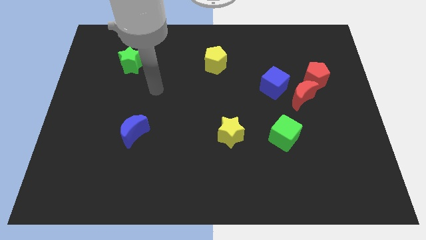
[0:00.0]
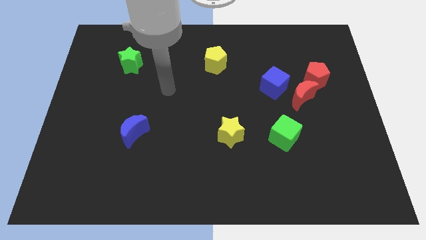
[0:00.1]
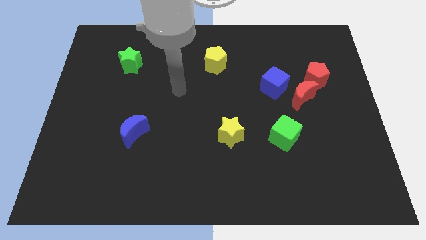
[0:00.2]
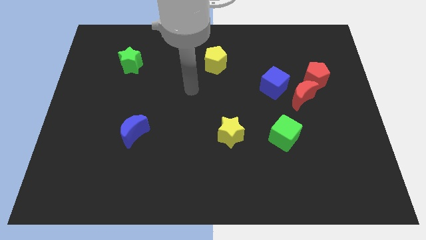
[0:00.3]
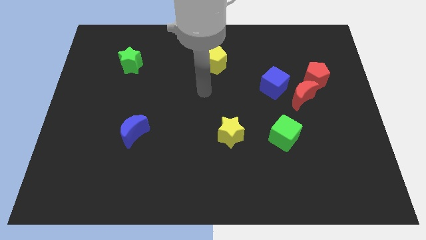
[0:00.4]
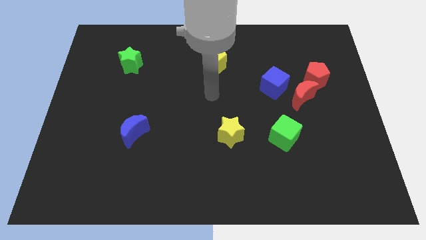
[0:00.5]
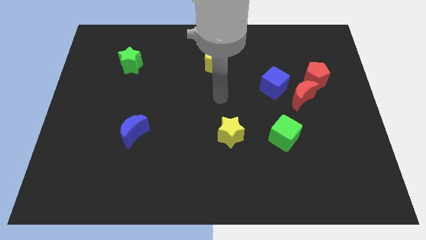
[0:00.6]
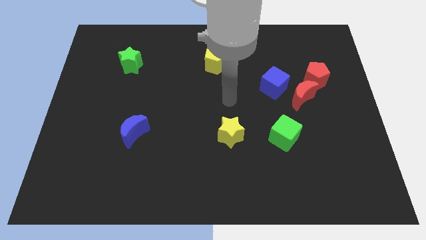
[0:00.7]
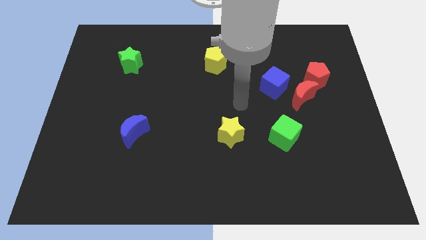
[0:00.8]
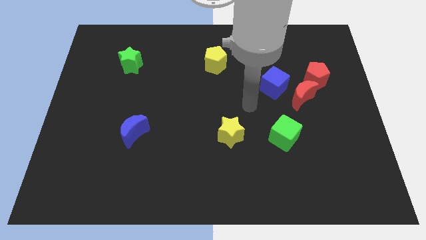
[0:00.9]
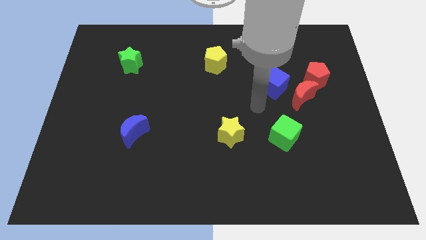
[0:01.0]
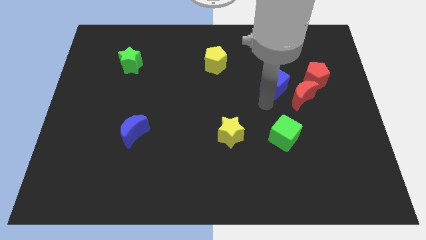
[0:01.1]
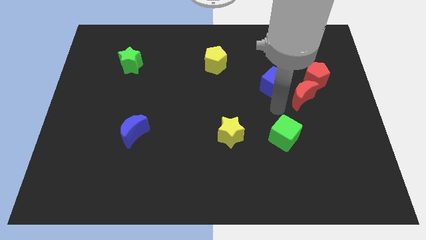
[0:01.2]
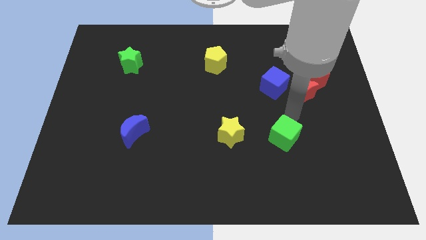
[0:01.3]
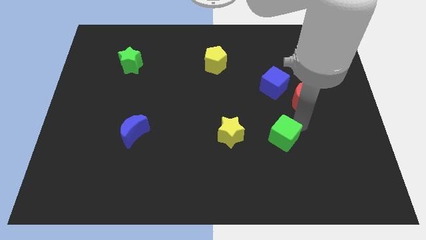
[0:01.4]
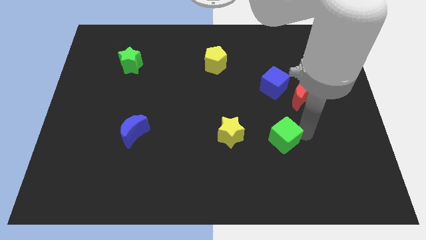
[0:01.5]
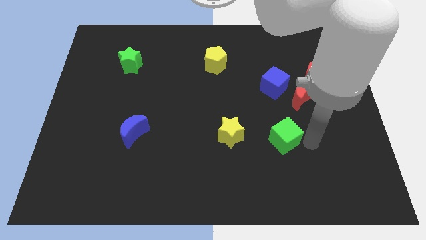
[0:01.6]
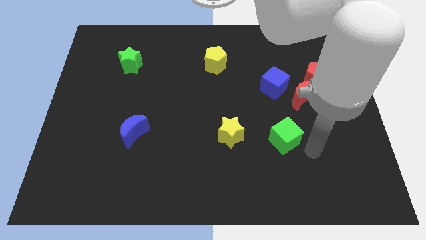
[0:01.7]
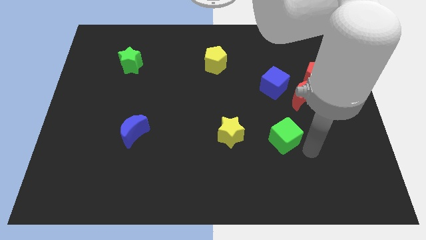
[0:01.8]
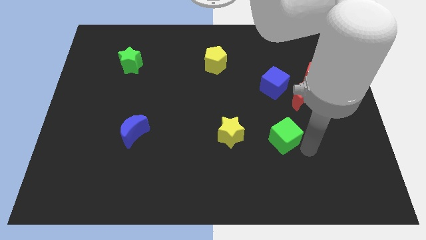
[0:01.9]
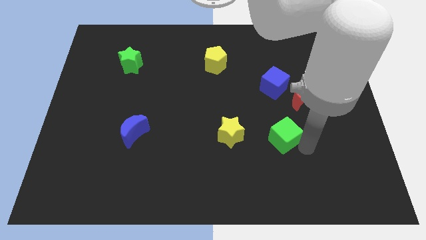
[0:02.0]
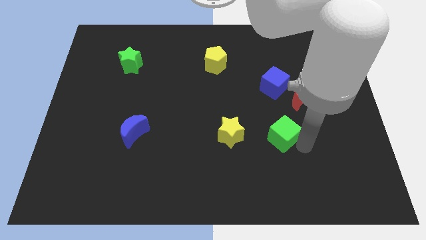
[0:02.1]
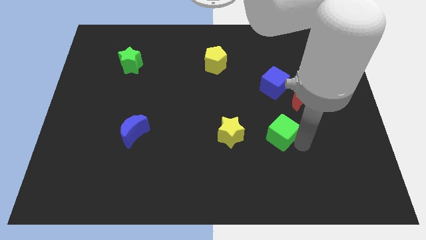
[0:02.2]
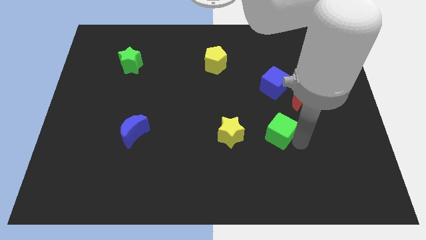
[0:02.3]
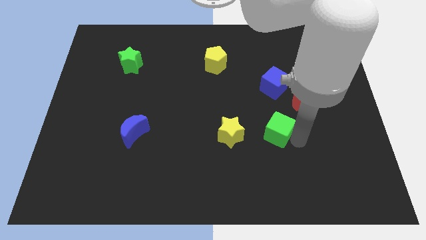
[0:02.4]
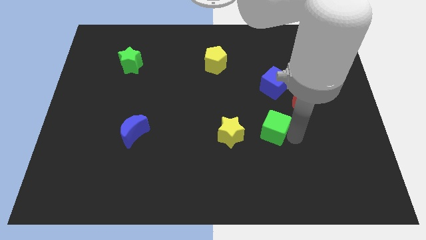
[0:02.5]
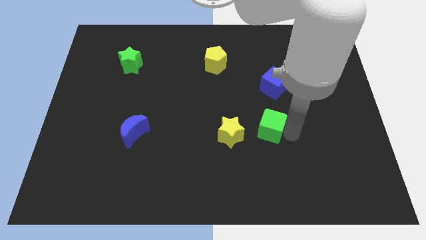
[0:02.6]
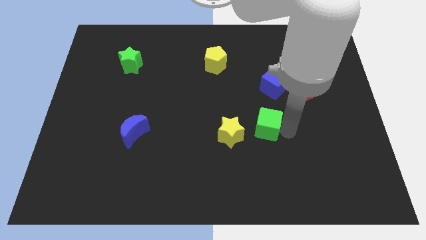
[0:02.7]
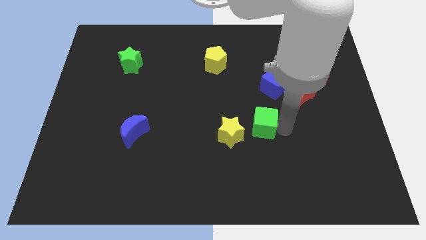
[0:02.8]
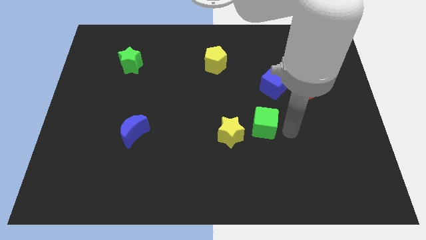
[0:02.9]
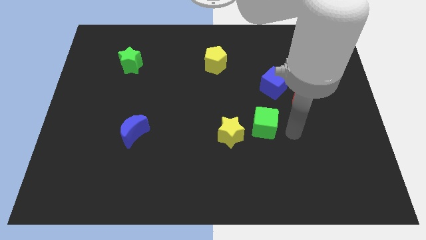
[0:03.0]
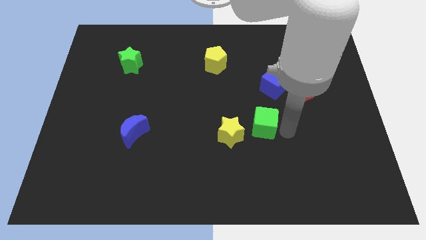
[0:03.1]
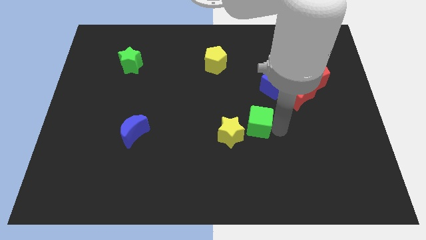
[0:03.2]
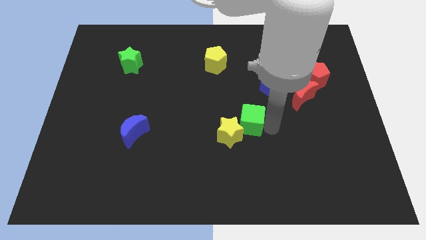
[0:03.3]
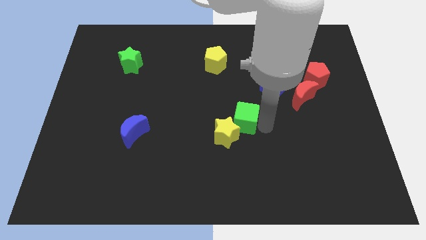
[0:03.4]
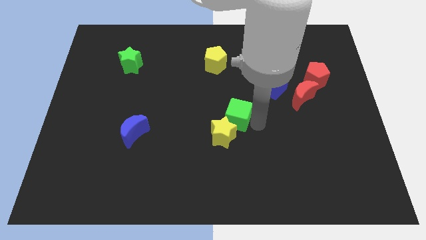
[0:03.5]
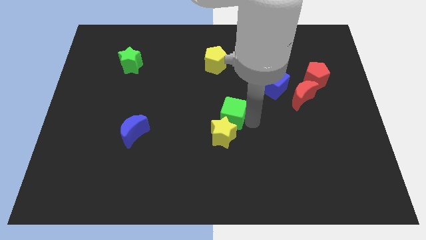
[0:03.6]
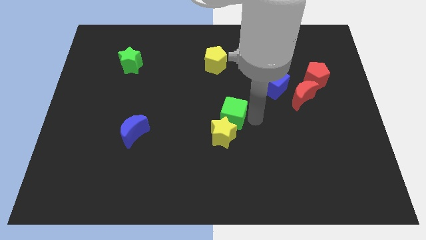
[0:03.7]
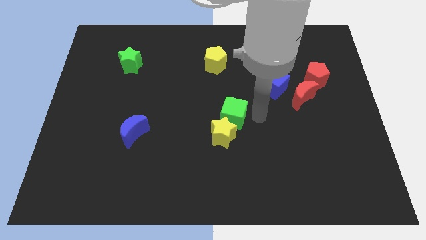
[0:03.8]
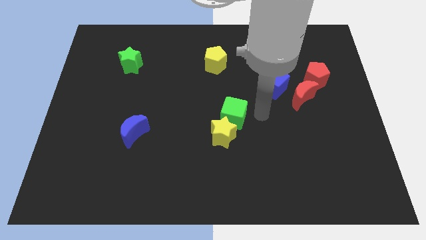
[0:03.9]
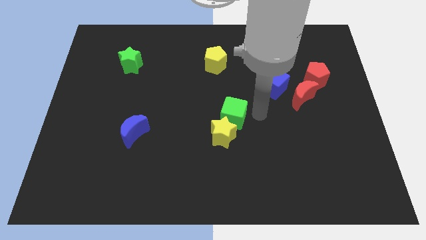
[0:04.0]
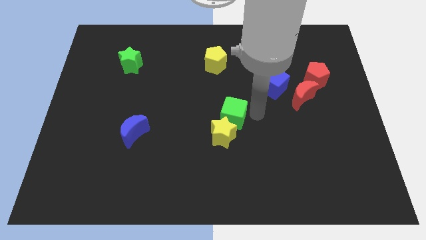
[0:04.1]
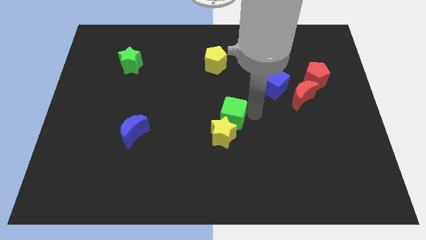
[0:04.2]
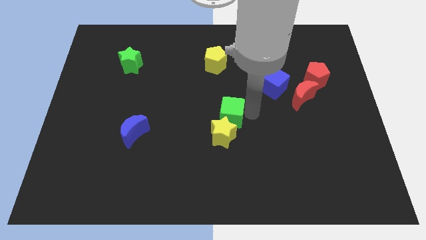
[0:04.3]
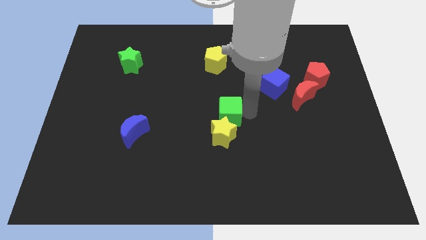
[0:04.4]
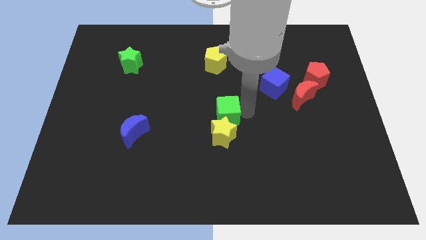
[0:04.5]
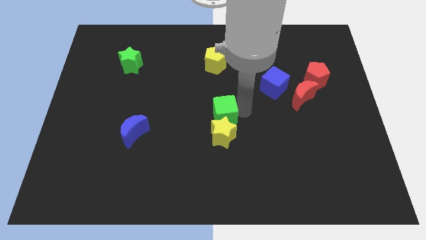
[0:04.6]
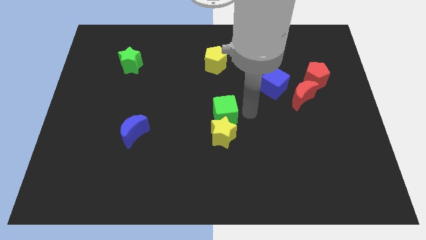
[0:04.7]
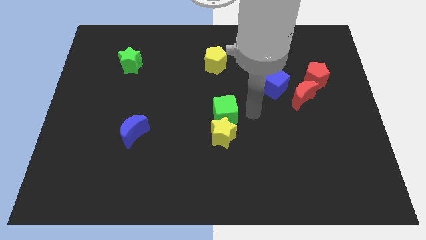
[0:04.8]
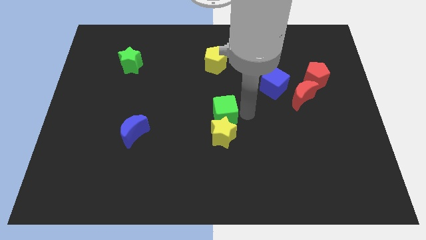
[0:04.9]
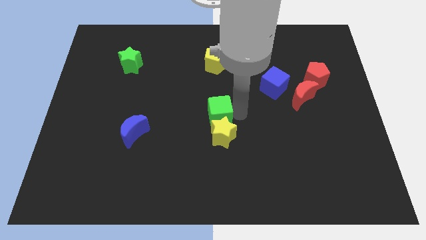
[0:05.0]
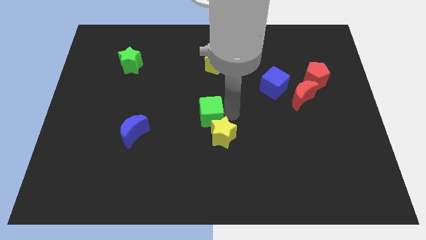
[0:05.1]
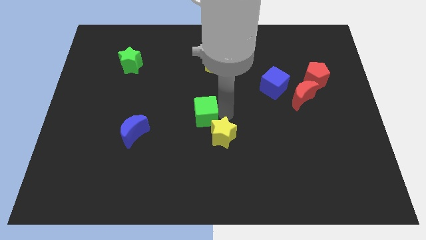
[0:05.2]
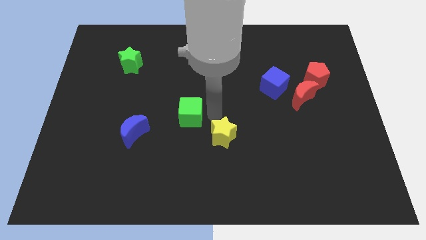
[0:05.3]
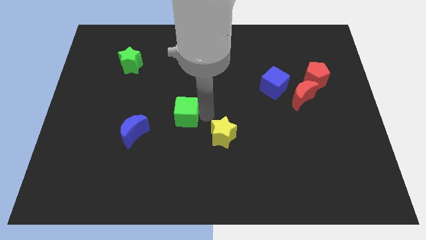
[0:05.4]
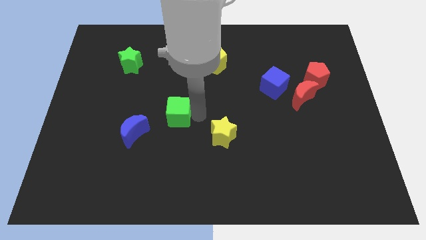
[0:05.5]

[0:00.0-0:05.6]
slide the green cube diagonally up and to the right of the blue moon

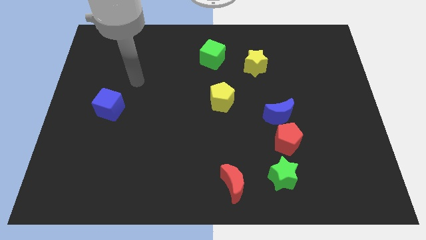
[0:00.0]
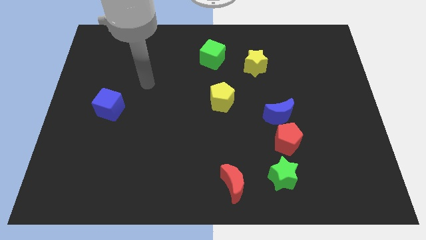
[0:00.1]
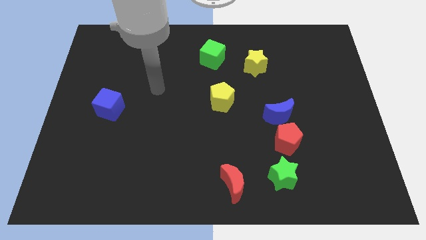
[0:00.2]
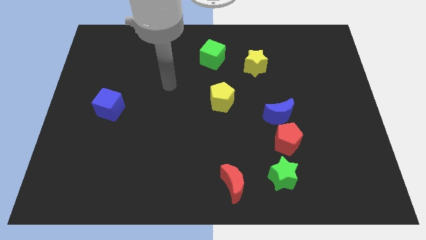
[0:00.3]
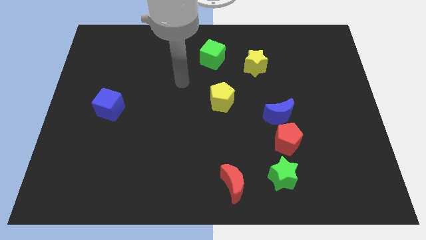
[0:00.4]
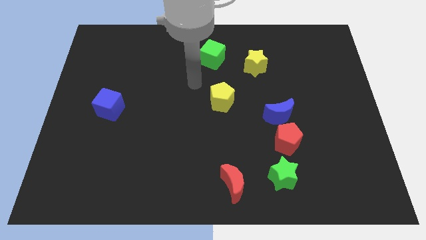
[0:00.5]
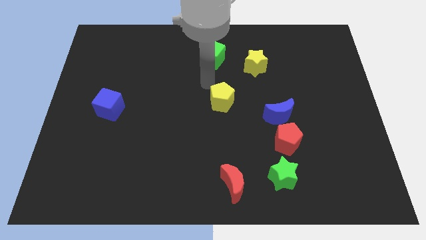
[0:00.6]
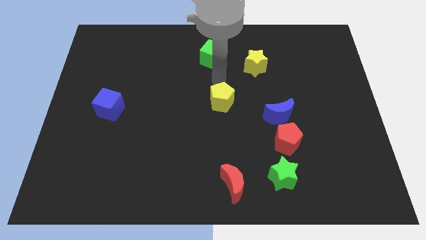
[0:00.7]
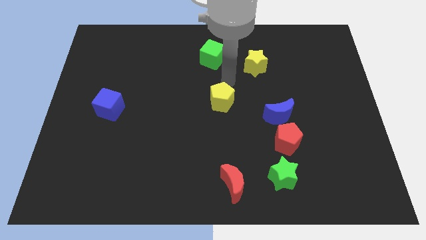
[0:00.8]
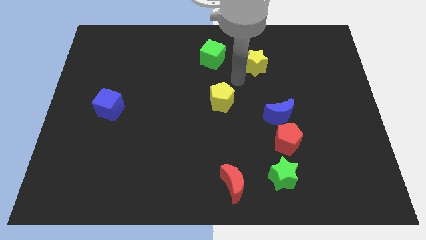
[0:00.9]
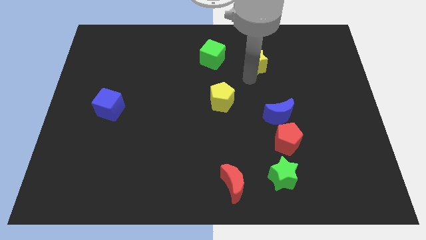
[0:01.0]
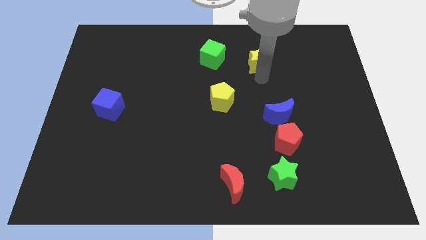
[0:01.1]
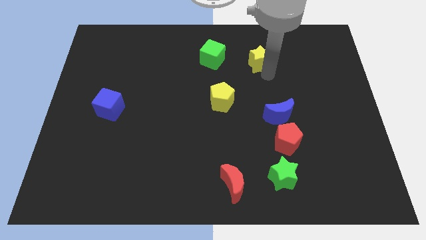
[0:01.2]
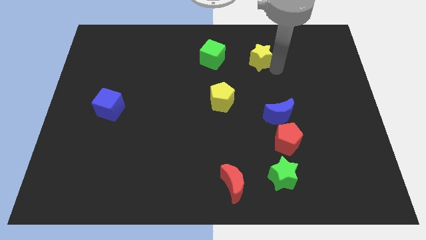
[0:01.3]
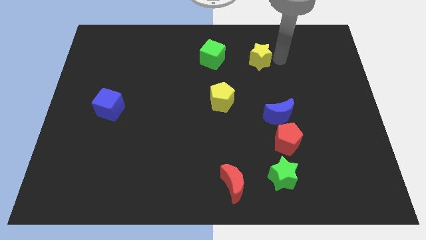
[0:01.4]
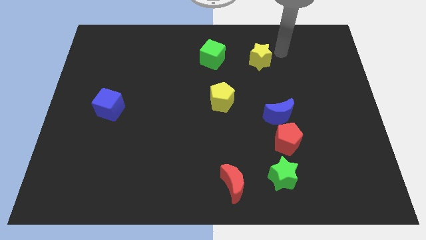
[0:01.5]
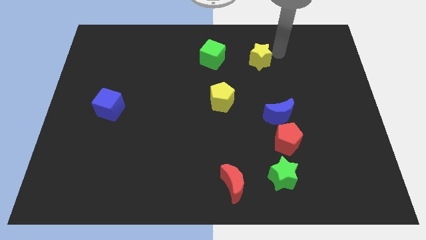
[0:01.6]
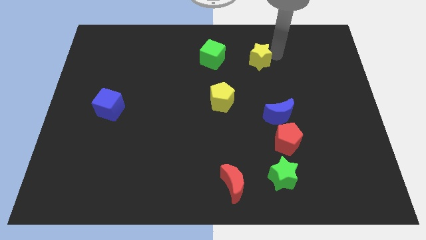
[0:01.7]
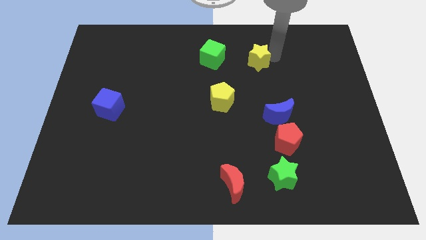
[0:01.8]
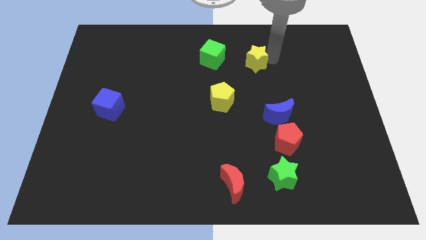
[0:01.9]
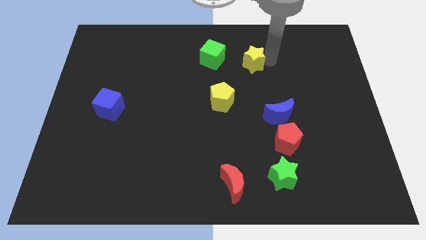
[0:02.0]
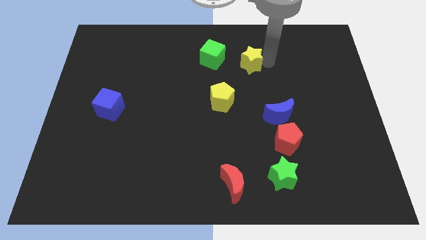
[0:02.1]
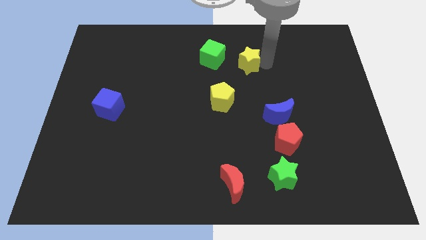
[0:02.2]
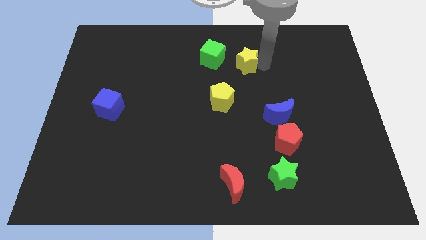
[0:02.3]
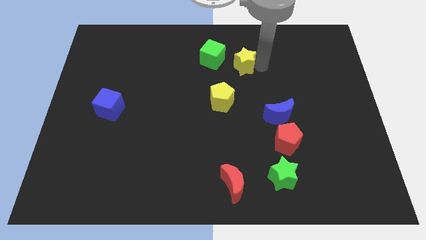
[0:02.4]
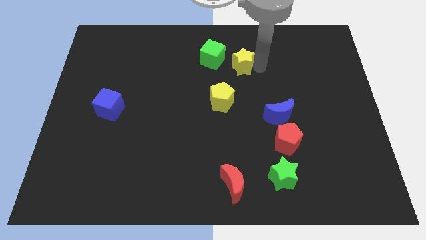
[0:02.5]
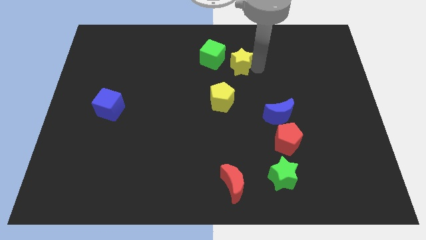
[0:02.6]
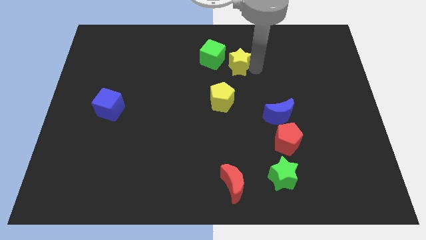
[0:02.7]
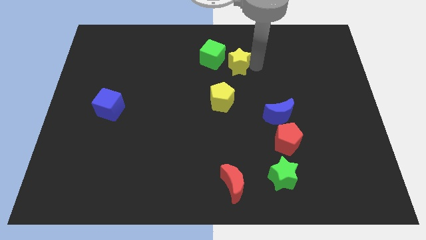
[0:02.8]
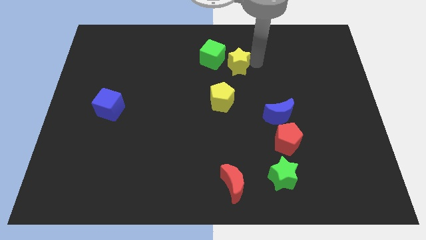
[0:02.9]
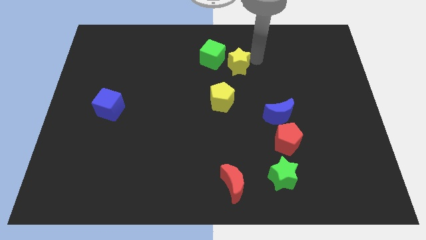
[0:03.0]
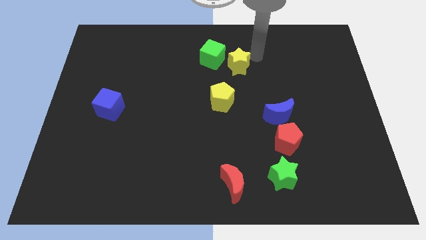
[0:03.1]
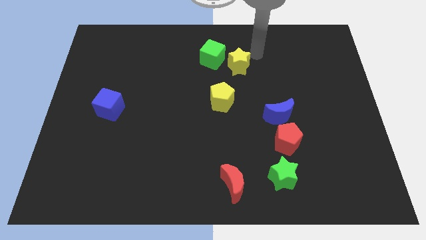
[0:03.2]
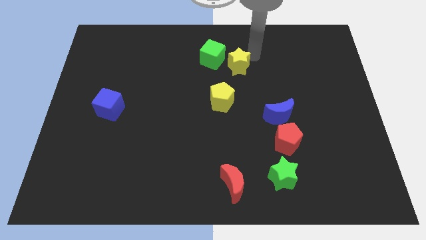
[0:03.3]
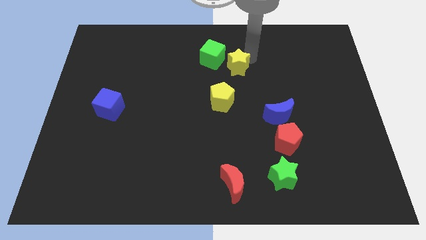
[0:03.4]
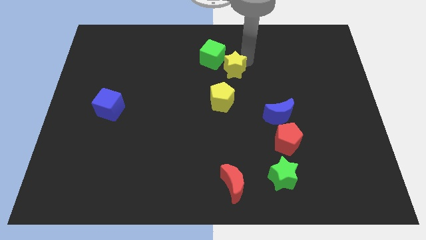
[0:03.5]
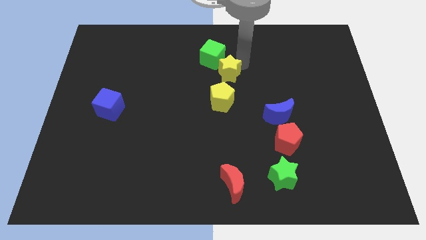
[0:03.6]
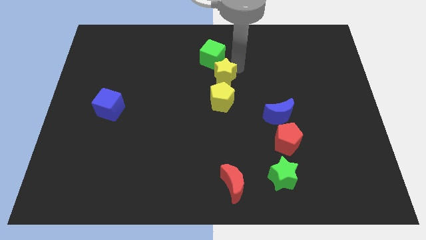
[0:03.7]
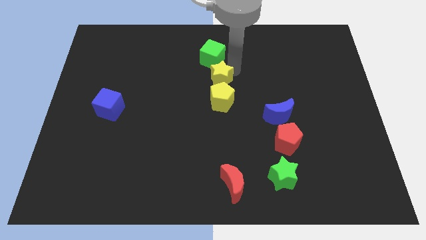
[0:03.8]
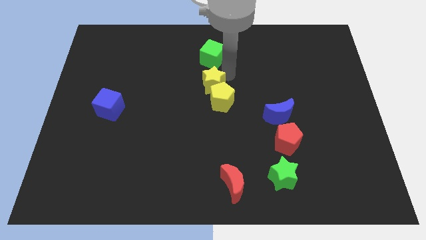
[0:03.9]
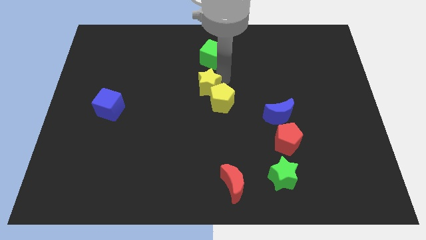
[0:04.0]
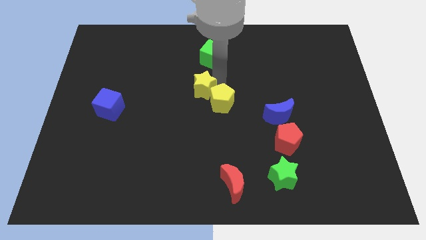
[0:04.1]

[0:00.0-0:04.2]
slide the yellow star just left of the yellow pentagon
